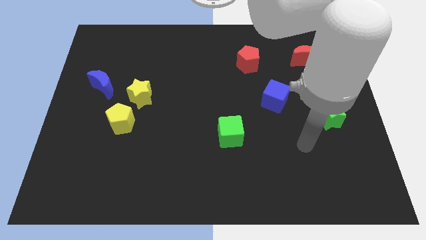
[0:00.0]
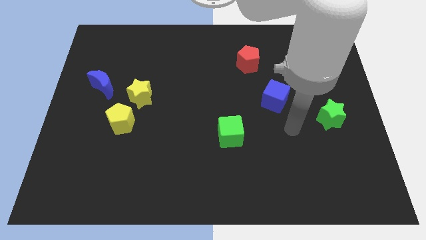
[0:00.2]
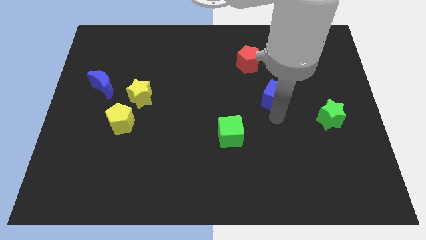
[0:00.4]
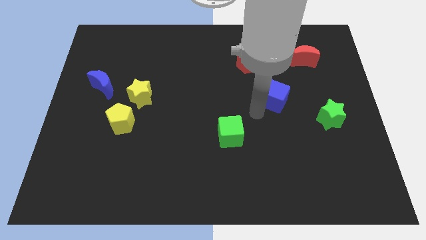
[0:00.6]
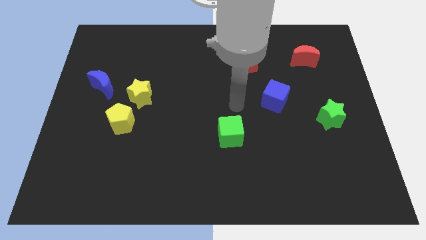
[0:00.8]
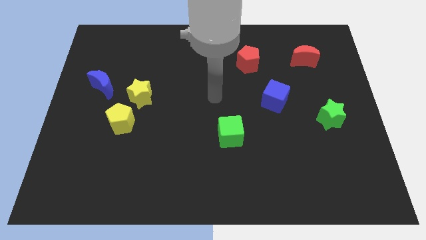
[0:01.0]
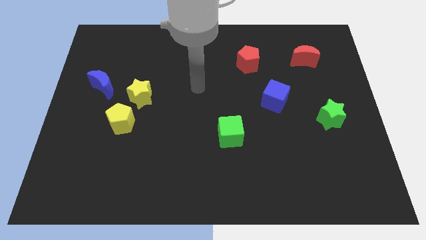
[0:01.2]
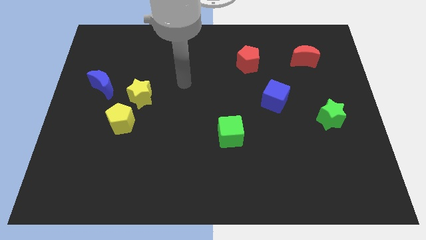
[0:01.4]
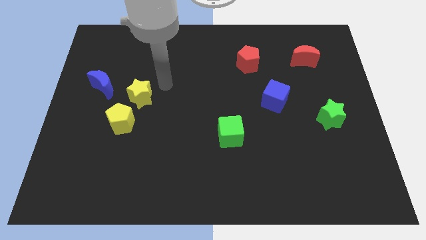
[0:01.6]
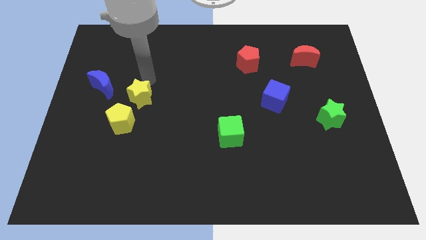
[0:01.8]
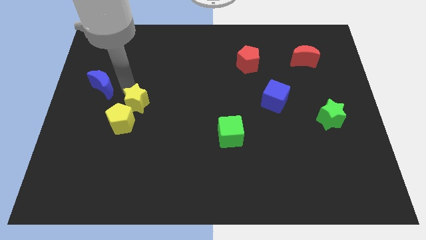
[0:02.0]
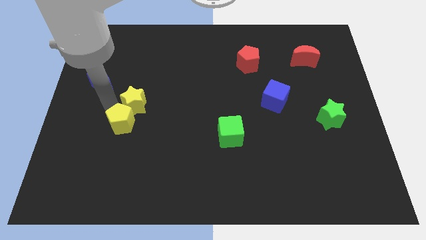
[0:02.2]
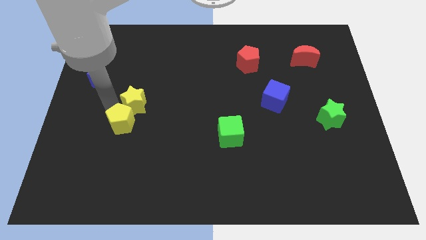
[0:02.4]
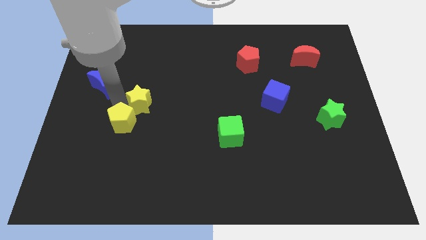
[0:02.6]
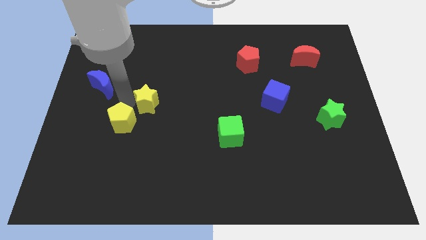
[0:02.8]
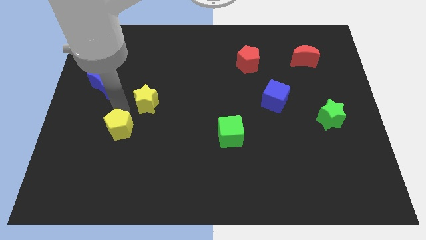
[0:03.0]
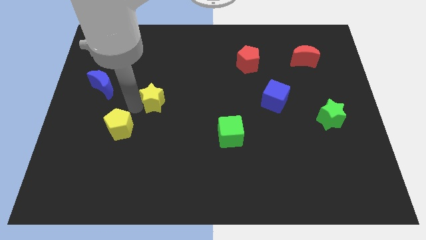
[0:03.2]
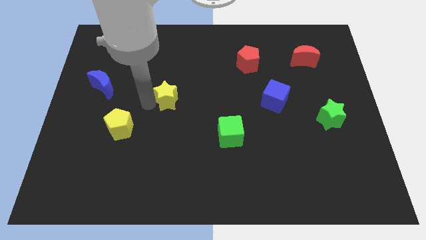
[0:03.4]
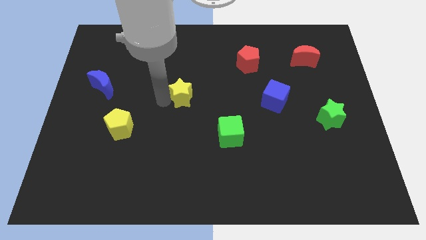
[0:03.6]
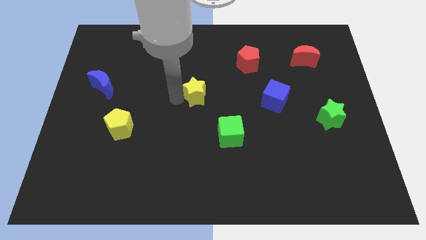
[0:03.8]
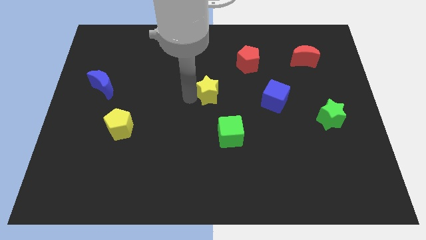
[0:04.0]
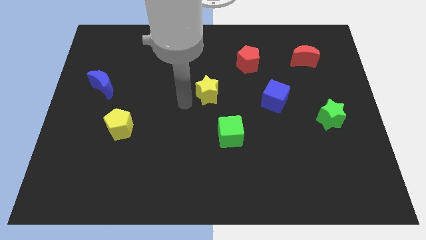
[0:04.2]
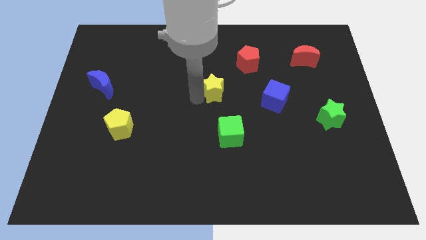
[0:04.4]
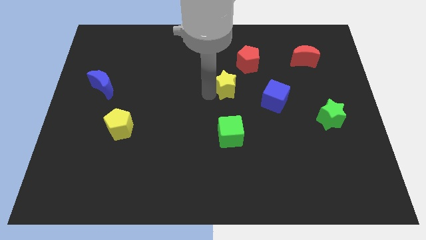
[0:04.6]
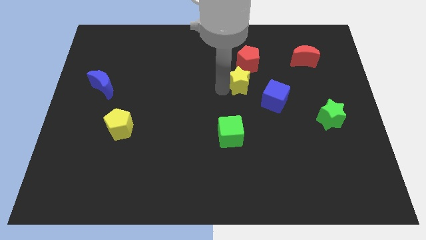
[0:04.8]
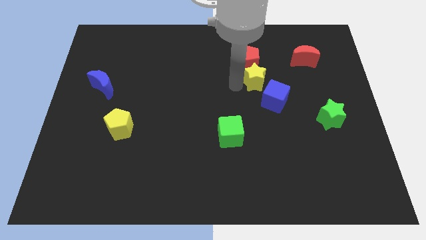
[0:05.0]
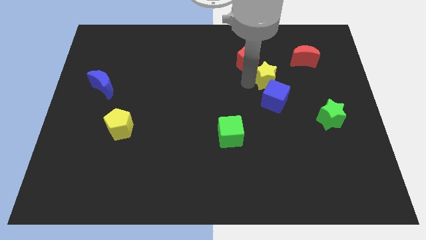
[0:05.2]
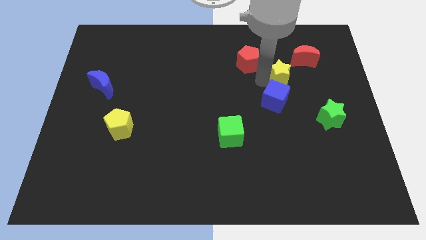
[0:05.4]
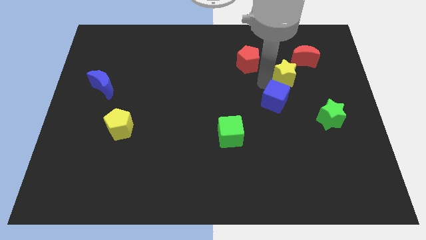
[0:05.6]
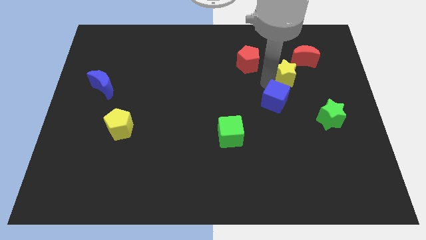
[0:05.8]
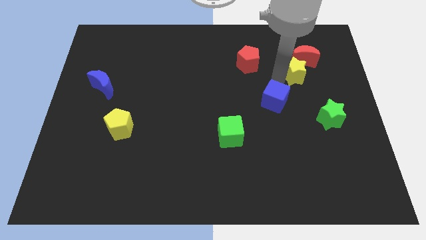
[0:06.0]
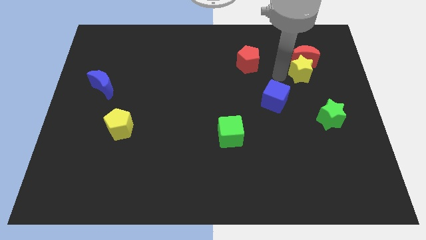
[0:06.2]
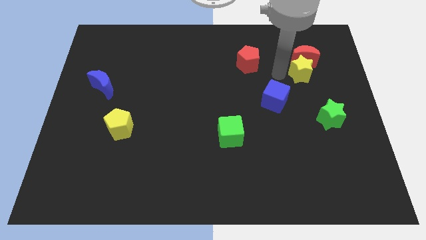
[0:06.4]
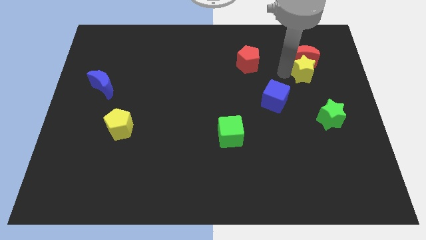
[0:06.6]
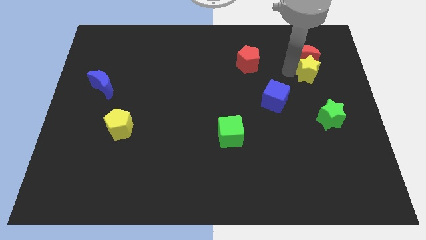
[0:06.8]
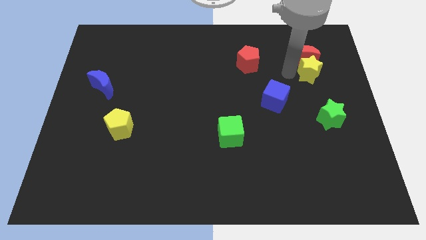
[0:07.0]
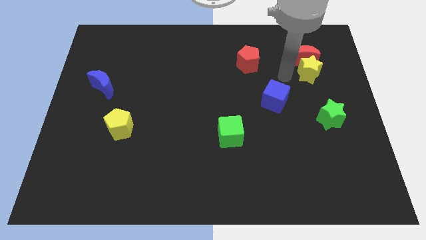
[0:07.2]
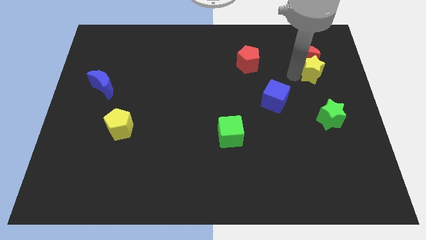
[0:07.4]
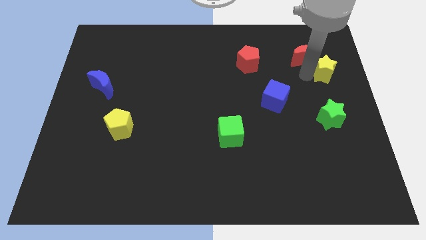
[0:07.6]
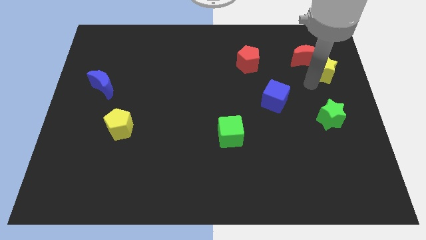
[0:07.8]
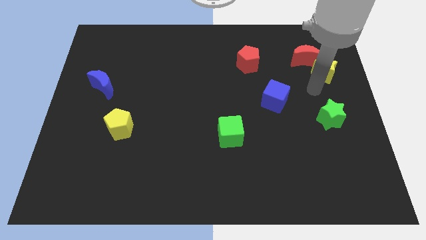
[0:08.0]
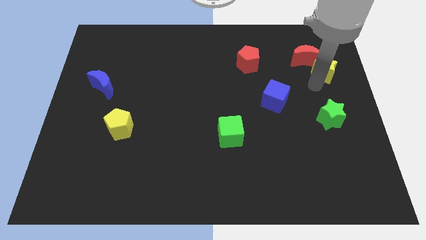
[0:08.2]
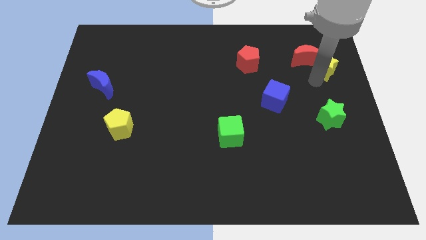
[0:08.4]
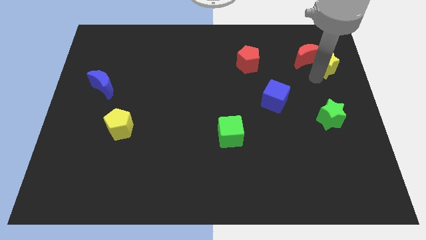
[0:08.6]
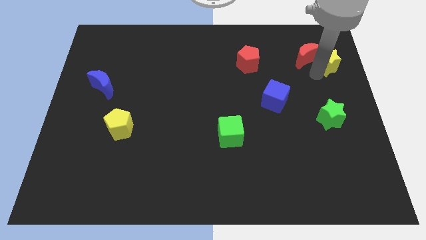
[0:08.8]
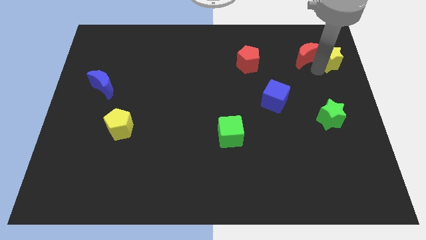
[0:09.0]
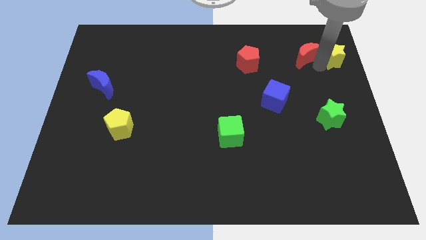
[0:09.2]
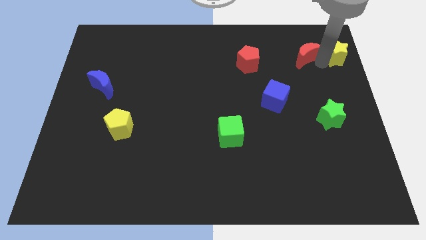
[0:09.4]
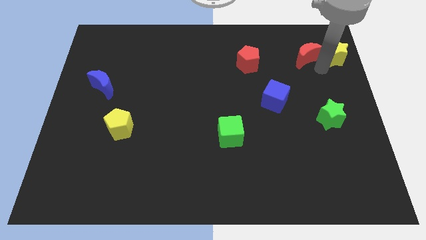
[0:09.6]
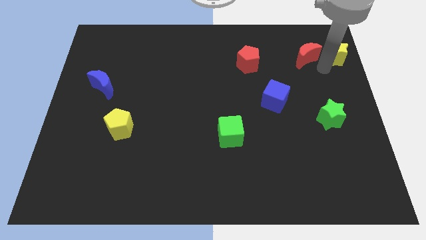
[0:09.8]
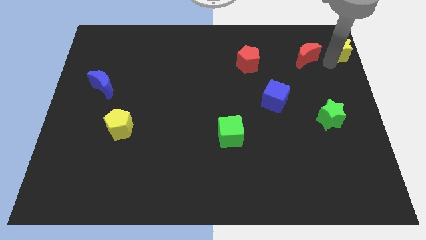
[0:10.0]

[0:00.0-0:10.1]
move the yellow star to the top right of the board

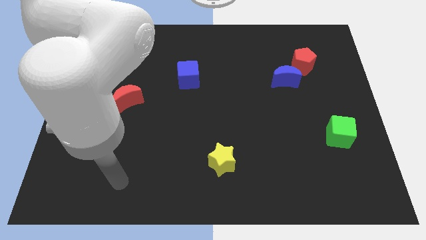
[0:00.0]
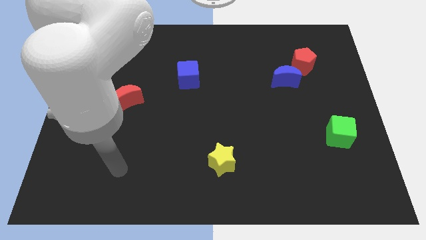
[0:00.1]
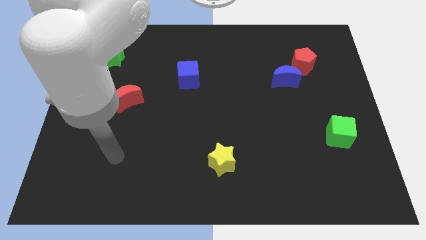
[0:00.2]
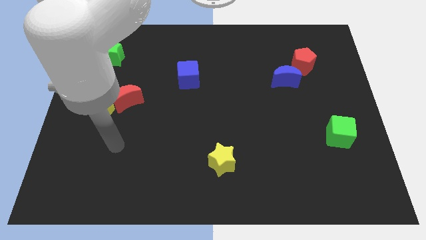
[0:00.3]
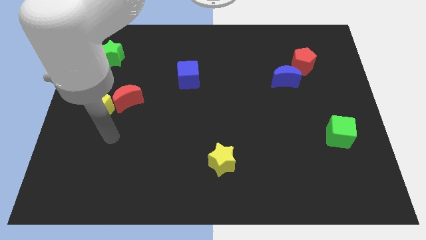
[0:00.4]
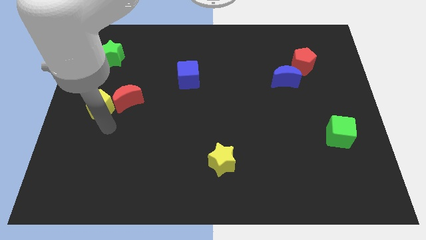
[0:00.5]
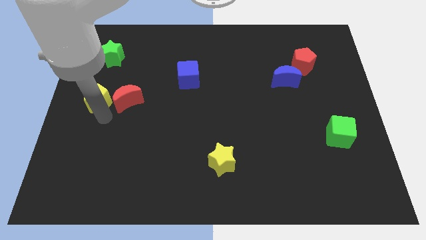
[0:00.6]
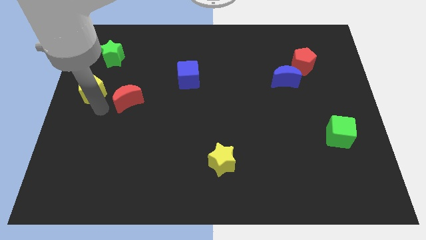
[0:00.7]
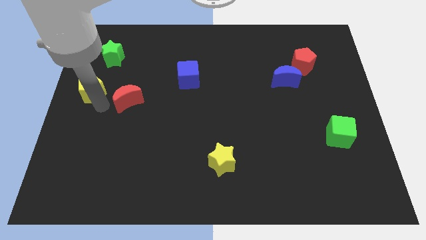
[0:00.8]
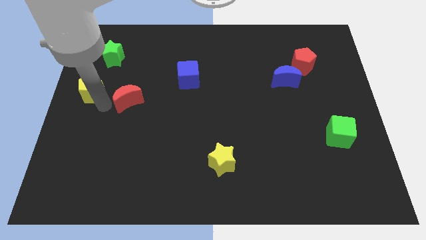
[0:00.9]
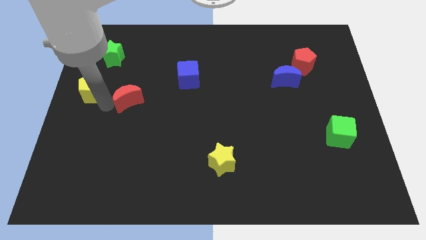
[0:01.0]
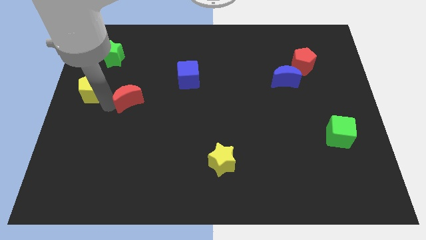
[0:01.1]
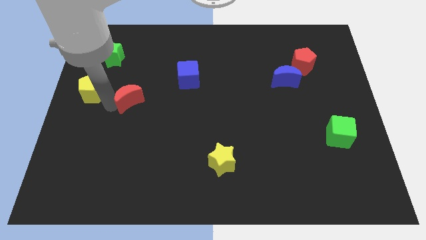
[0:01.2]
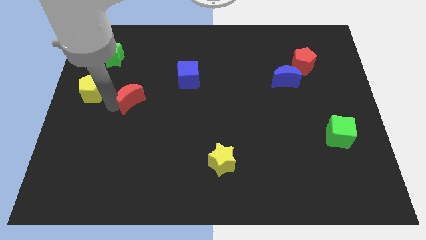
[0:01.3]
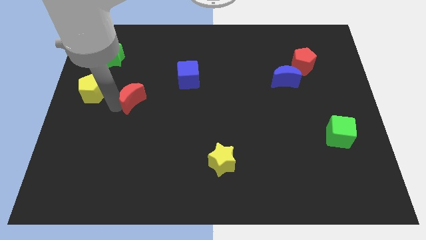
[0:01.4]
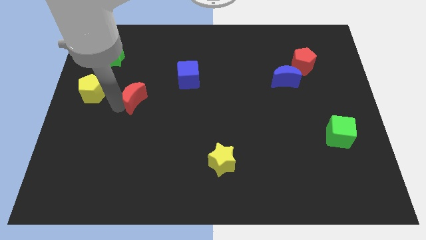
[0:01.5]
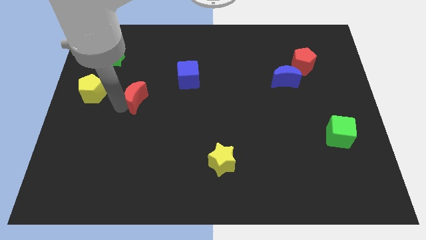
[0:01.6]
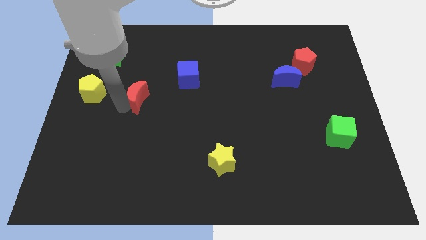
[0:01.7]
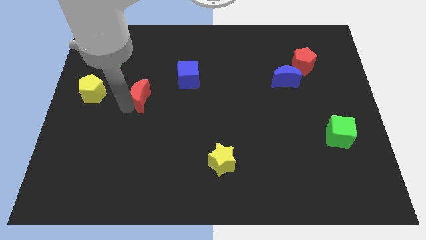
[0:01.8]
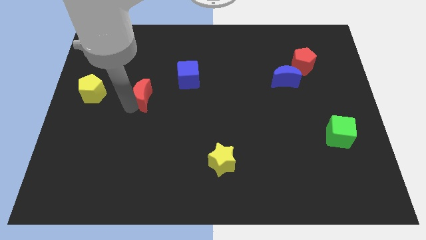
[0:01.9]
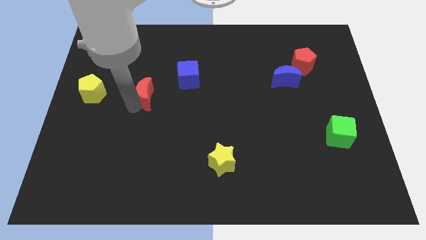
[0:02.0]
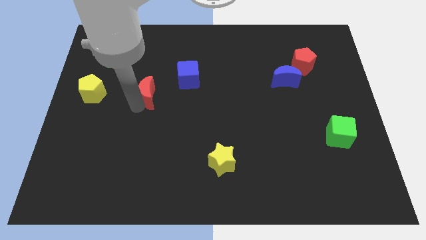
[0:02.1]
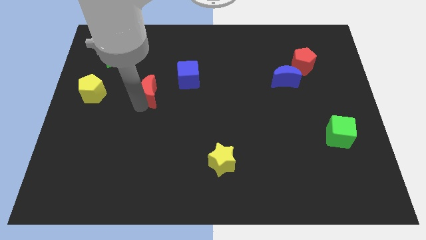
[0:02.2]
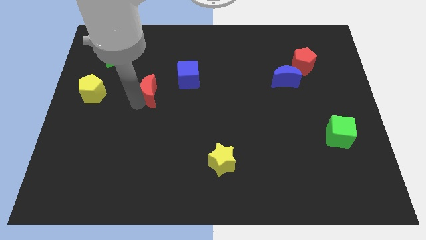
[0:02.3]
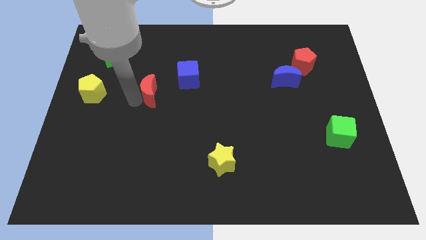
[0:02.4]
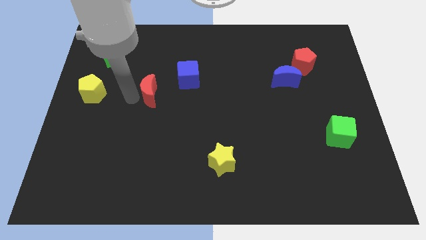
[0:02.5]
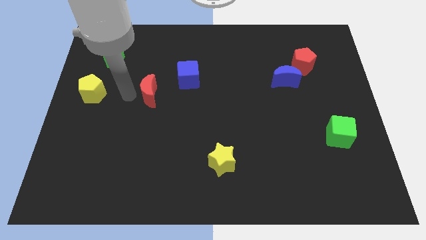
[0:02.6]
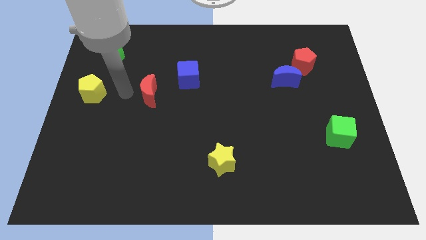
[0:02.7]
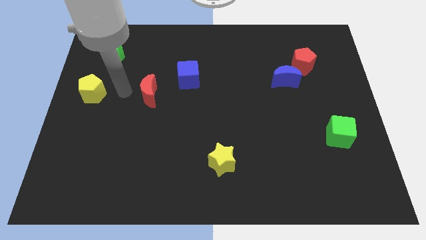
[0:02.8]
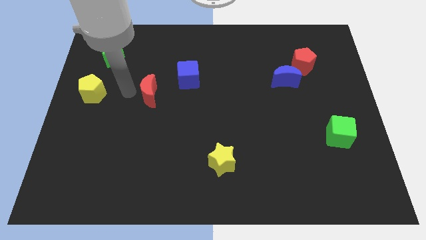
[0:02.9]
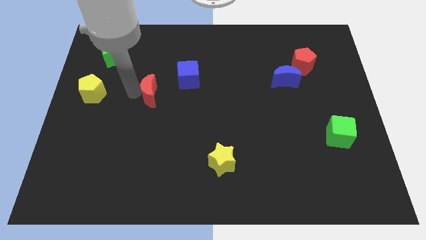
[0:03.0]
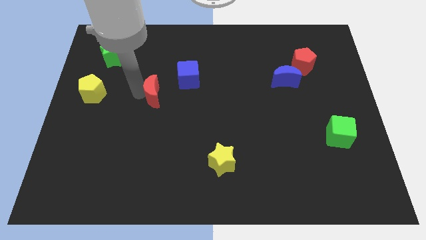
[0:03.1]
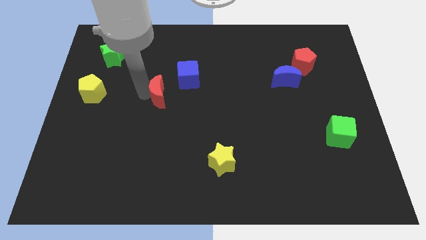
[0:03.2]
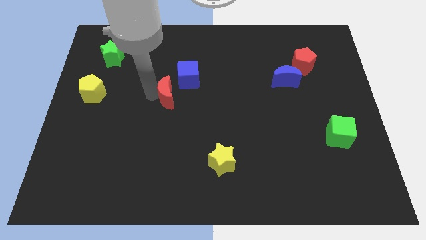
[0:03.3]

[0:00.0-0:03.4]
slide the red moon to the middle of the board
